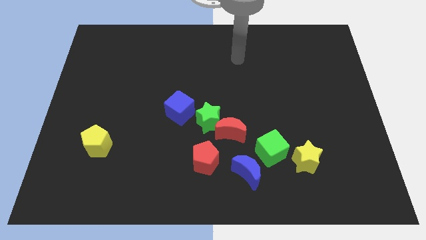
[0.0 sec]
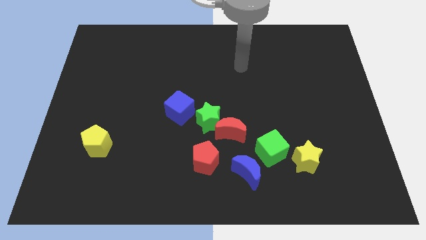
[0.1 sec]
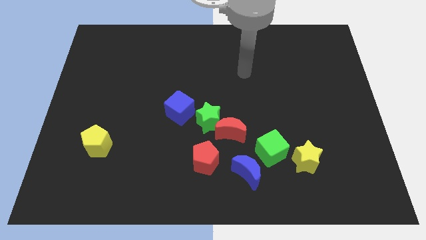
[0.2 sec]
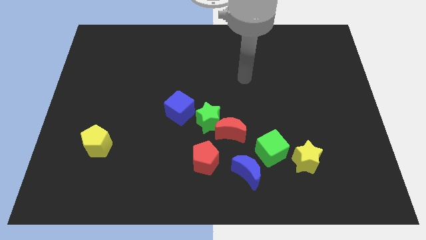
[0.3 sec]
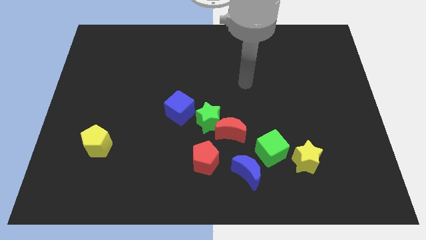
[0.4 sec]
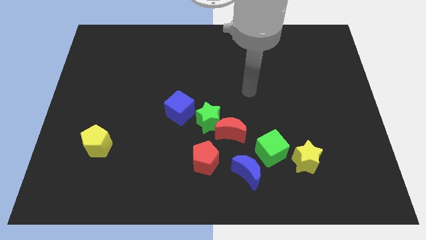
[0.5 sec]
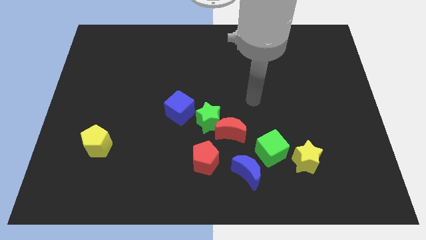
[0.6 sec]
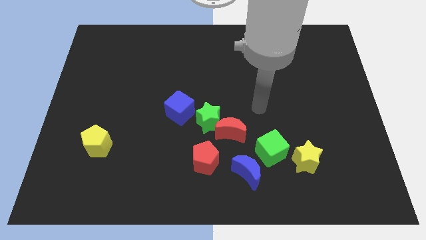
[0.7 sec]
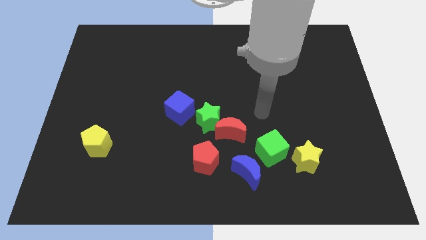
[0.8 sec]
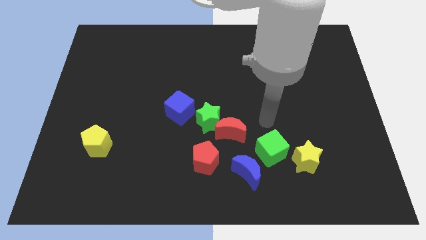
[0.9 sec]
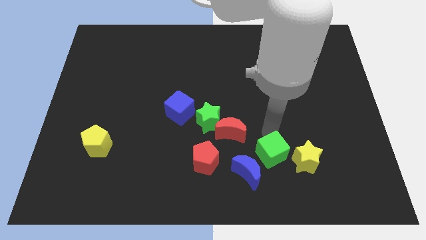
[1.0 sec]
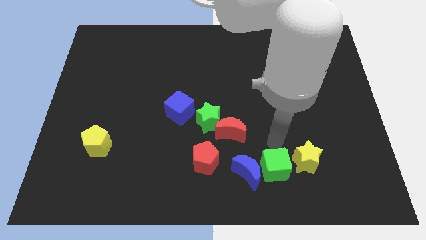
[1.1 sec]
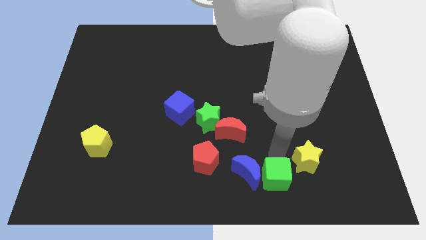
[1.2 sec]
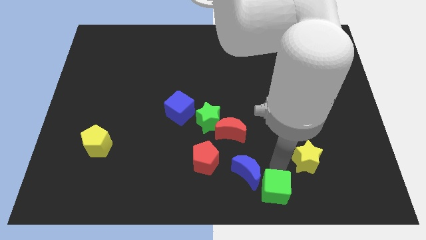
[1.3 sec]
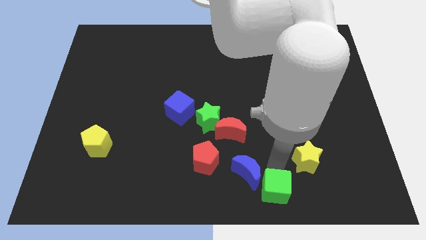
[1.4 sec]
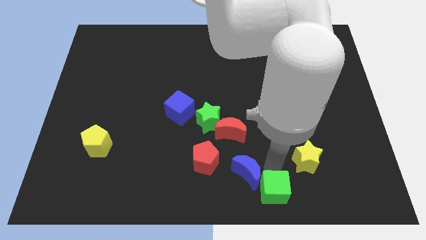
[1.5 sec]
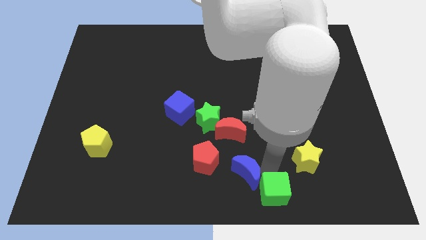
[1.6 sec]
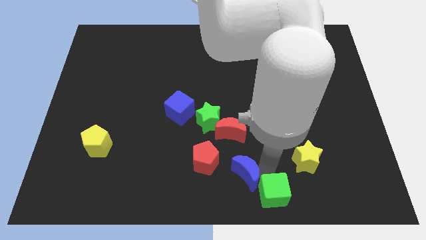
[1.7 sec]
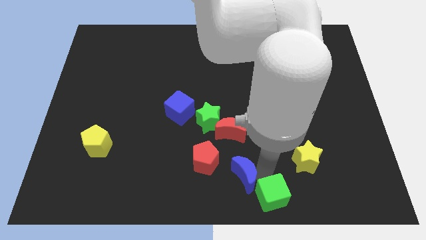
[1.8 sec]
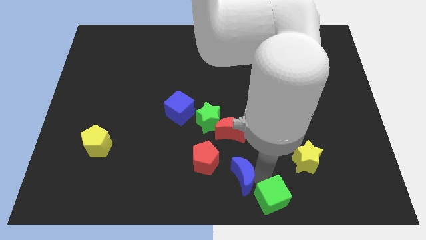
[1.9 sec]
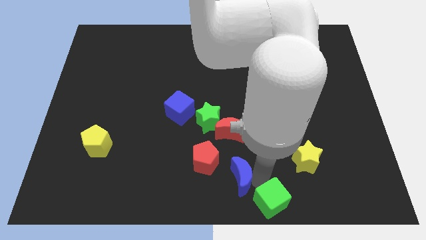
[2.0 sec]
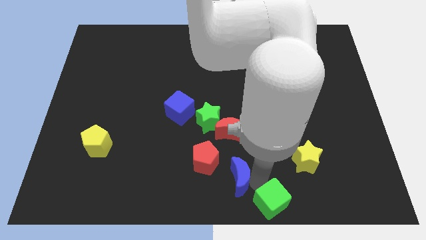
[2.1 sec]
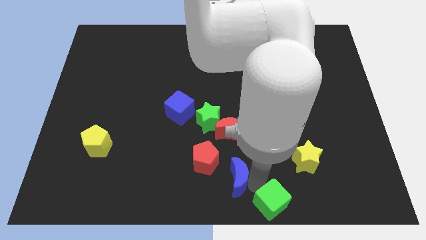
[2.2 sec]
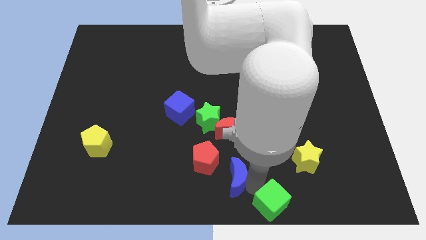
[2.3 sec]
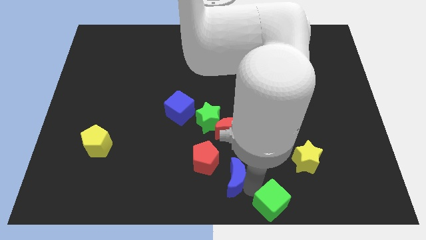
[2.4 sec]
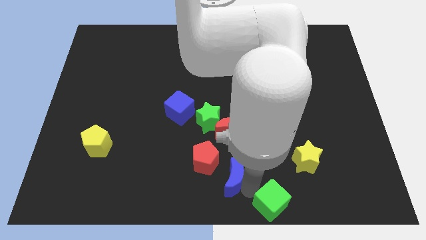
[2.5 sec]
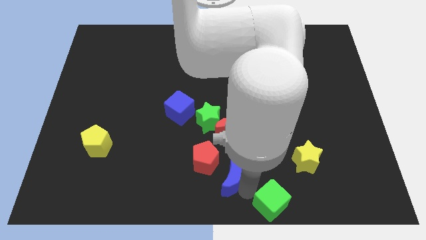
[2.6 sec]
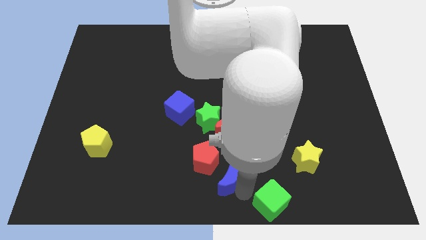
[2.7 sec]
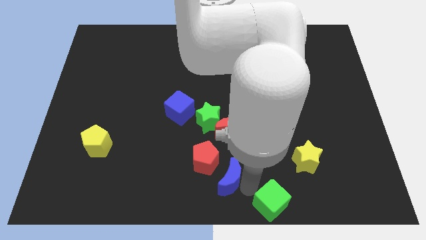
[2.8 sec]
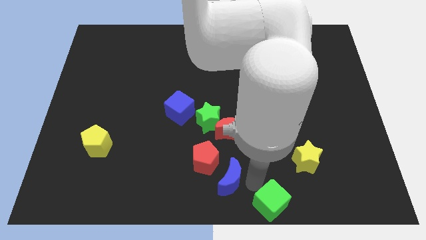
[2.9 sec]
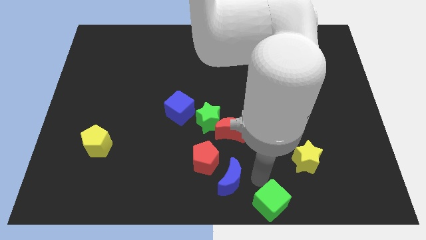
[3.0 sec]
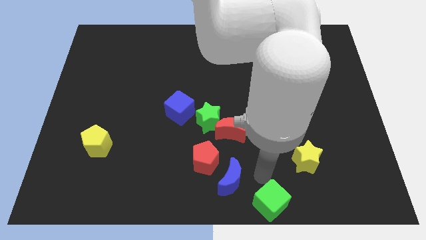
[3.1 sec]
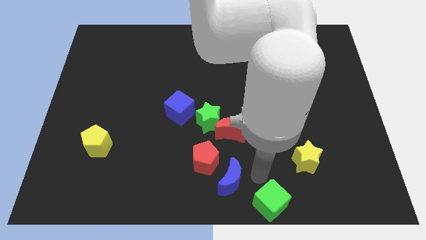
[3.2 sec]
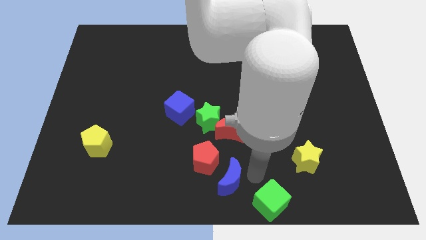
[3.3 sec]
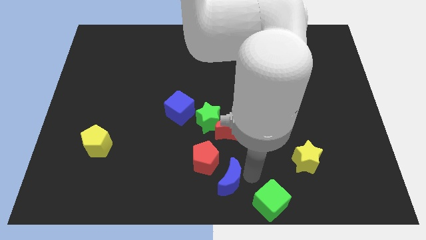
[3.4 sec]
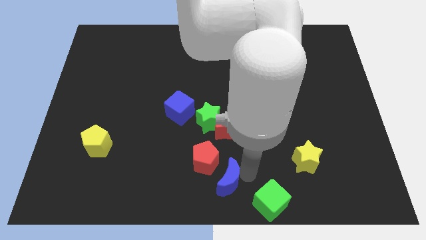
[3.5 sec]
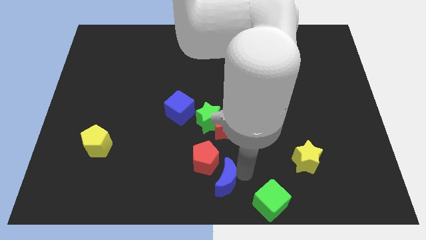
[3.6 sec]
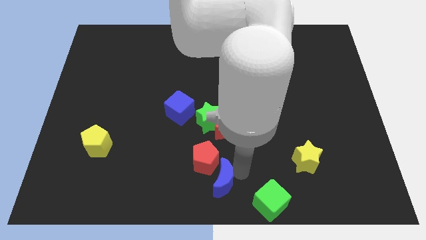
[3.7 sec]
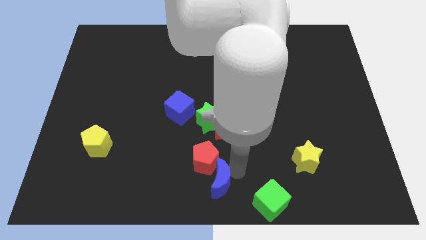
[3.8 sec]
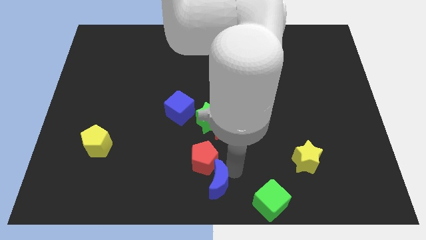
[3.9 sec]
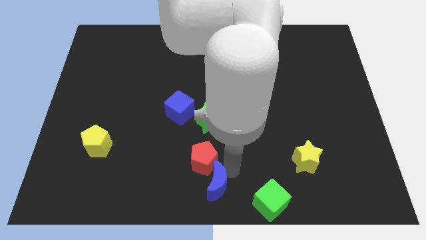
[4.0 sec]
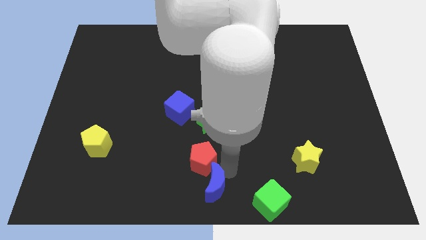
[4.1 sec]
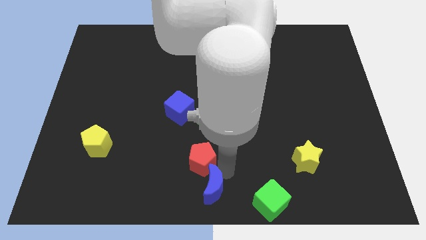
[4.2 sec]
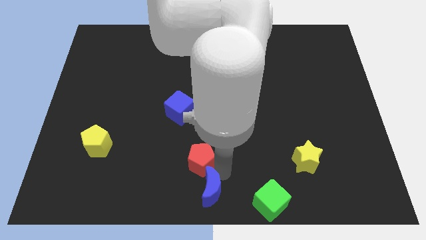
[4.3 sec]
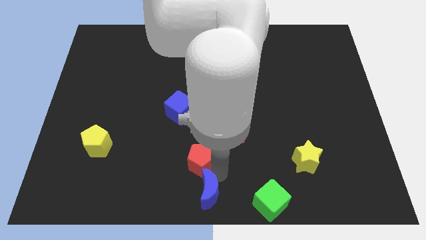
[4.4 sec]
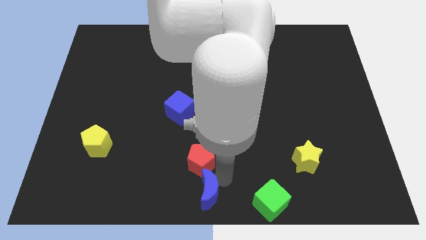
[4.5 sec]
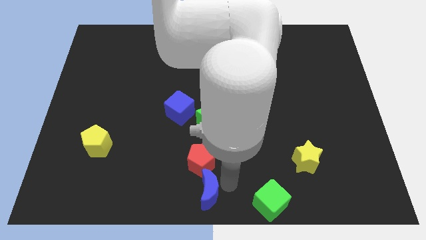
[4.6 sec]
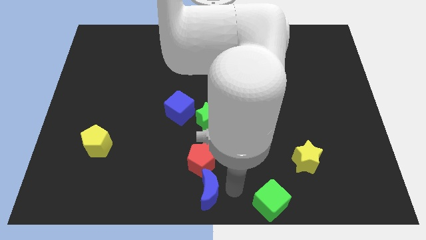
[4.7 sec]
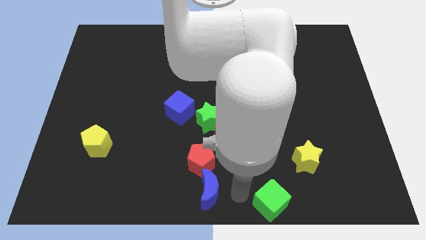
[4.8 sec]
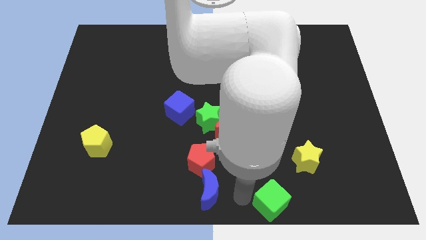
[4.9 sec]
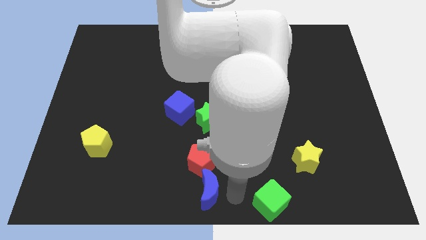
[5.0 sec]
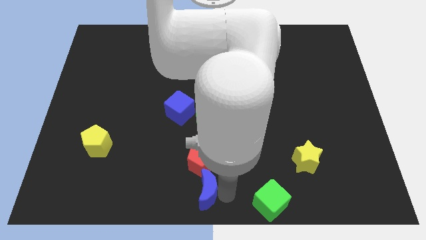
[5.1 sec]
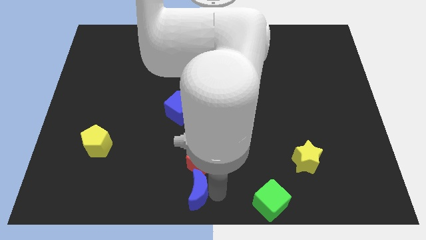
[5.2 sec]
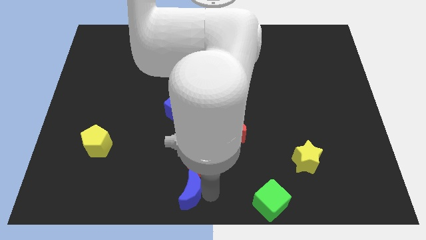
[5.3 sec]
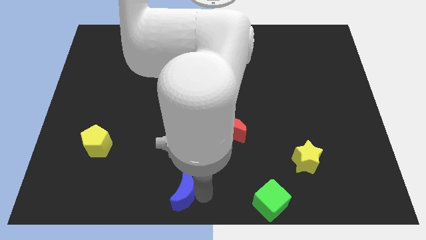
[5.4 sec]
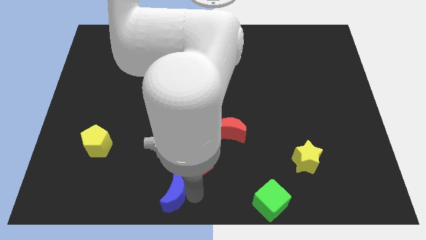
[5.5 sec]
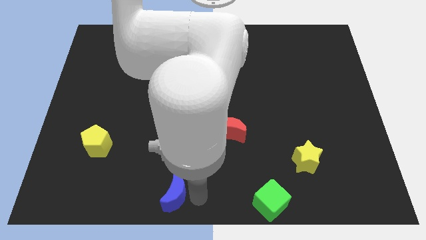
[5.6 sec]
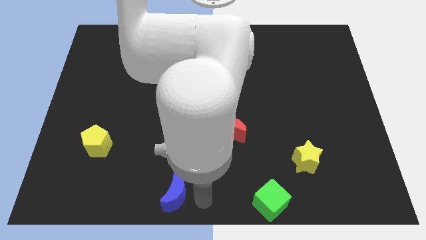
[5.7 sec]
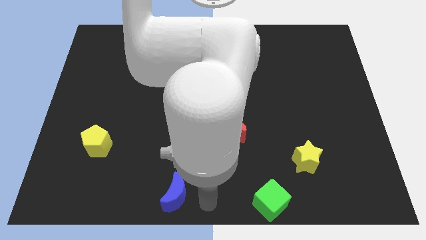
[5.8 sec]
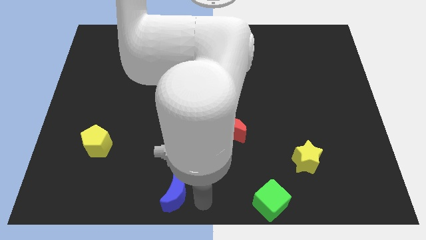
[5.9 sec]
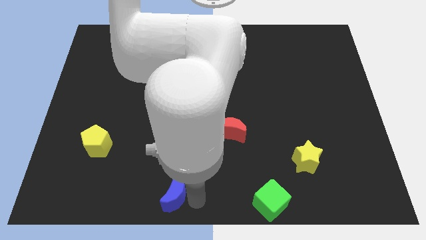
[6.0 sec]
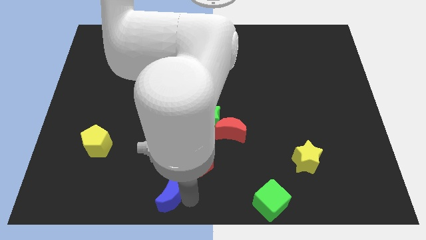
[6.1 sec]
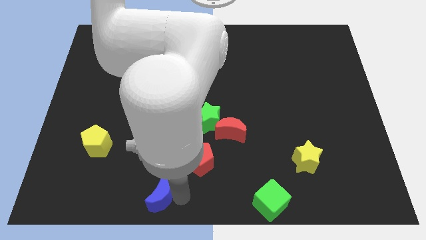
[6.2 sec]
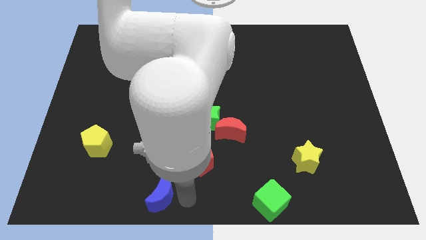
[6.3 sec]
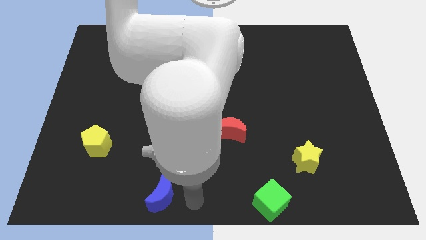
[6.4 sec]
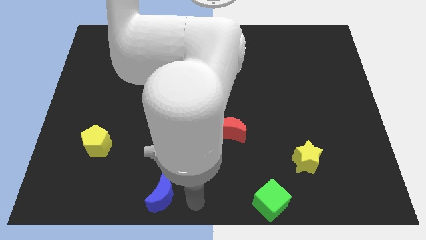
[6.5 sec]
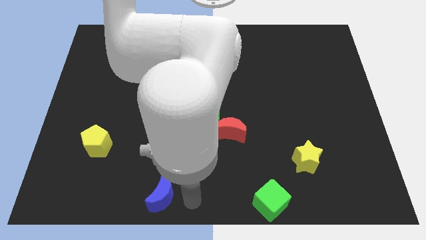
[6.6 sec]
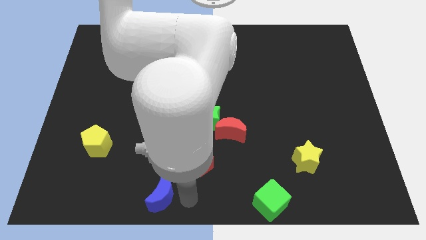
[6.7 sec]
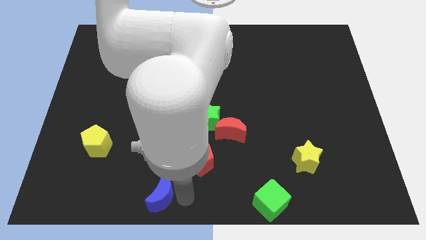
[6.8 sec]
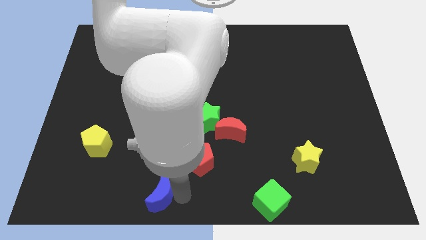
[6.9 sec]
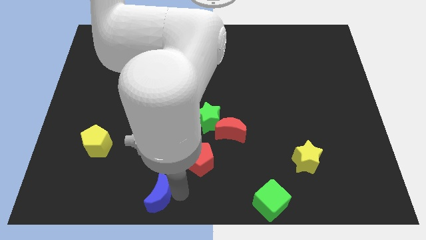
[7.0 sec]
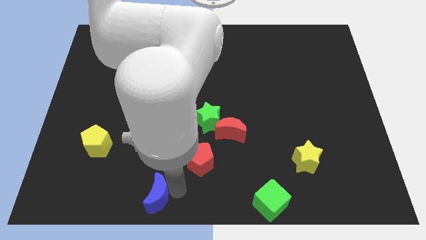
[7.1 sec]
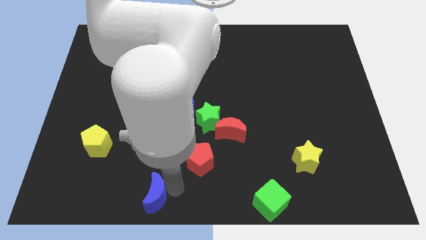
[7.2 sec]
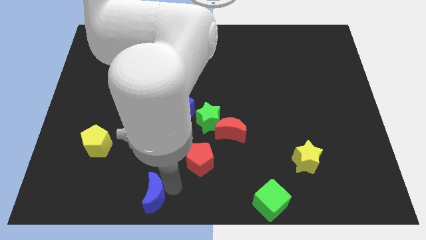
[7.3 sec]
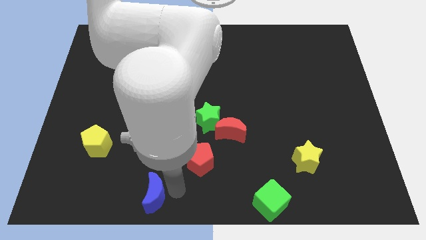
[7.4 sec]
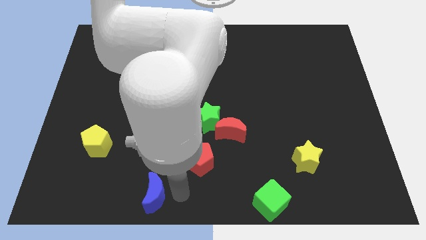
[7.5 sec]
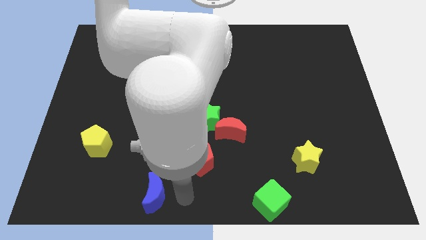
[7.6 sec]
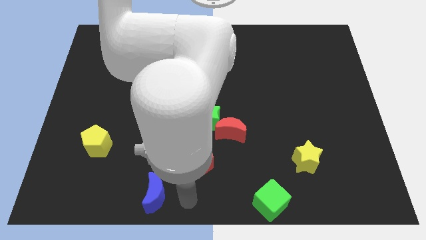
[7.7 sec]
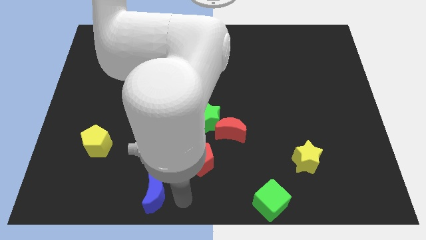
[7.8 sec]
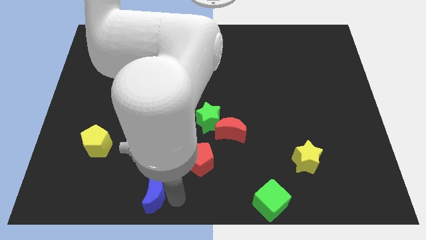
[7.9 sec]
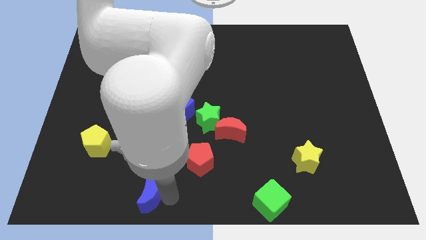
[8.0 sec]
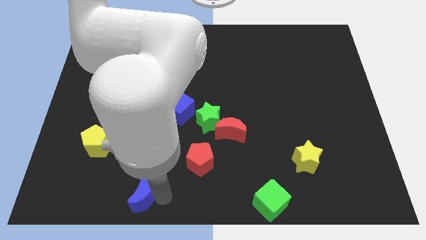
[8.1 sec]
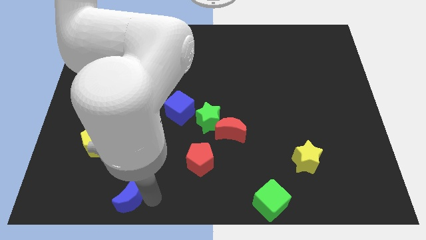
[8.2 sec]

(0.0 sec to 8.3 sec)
move the blue moon to the left
